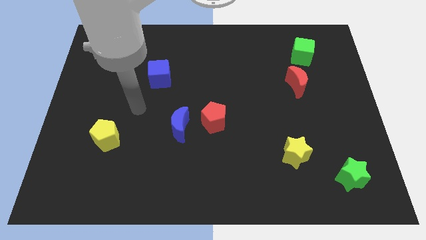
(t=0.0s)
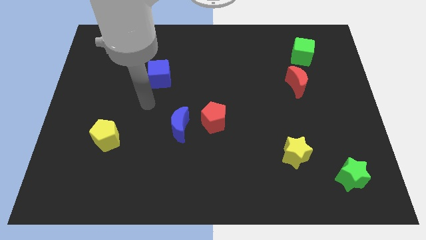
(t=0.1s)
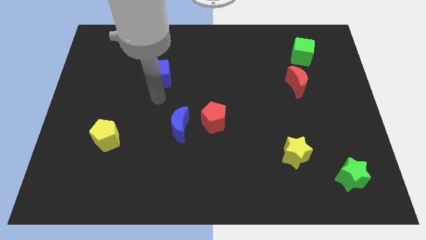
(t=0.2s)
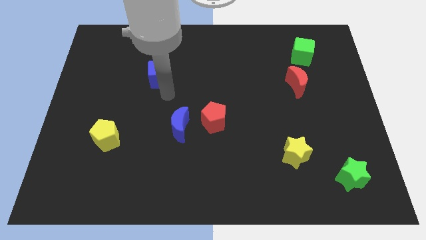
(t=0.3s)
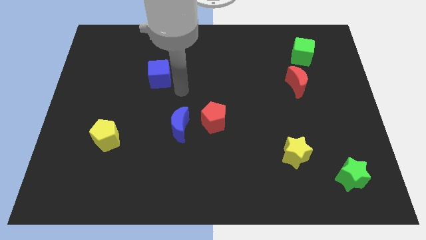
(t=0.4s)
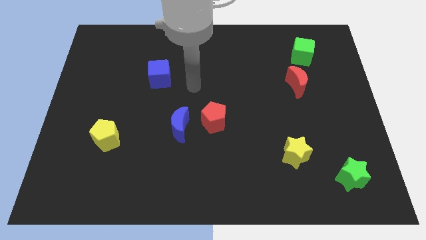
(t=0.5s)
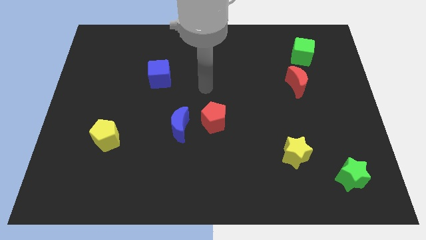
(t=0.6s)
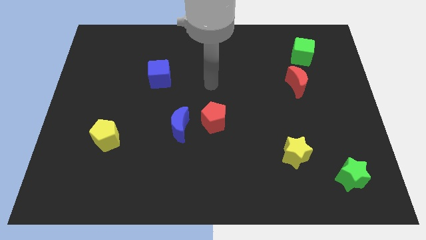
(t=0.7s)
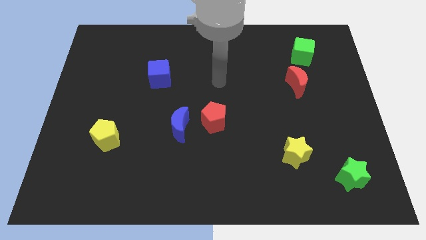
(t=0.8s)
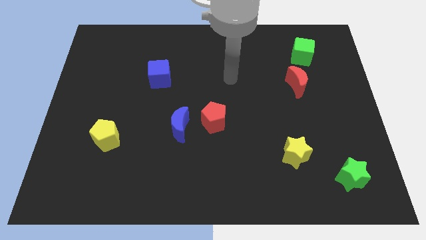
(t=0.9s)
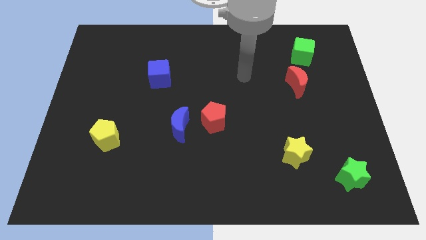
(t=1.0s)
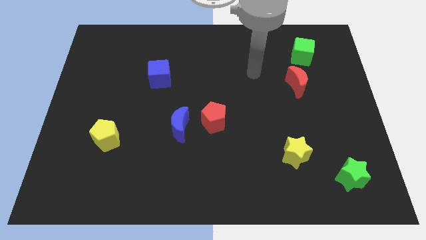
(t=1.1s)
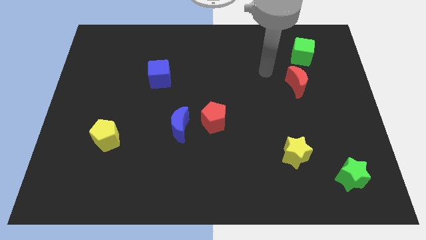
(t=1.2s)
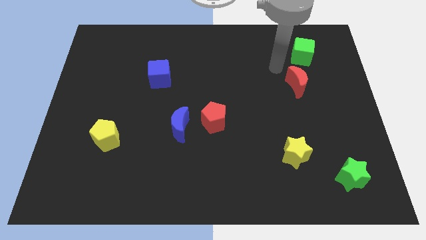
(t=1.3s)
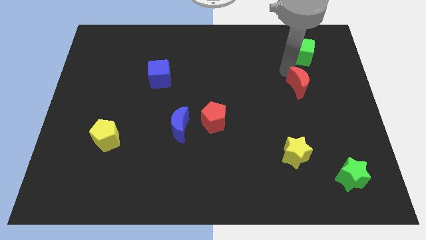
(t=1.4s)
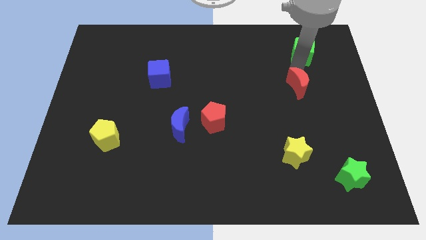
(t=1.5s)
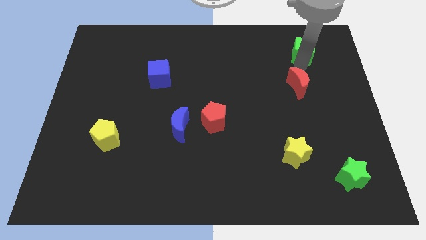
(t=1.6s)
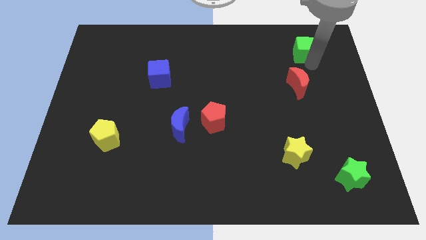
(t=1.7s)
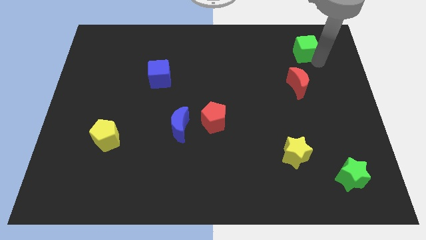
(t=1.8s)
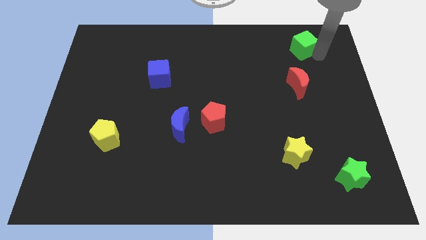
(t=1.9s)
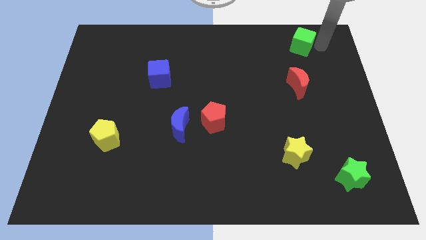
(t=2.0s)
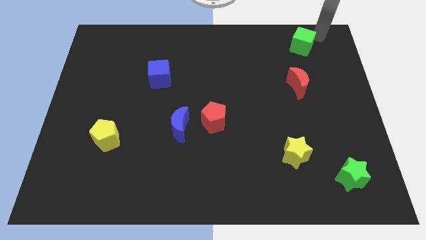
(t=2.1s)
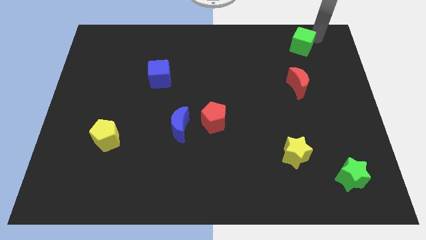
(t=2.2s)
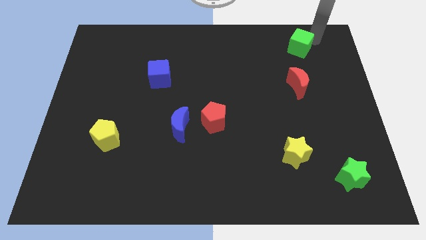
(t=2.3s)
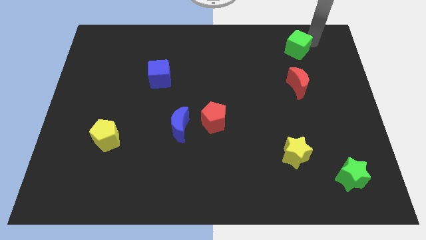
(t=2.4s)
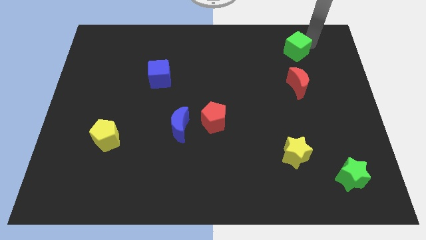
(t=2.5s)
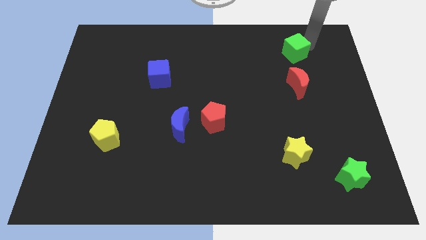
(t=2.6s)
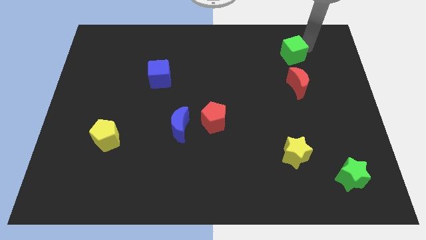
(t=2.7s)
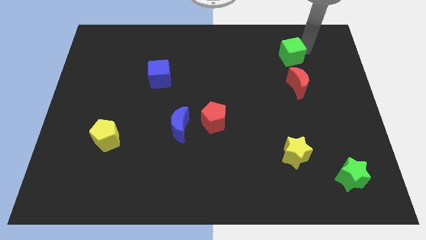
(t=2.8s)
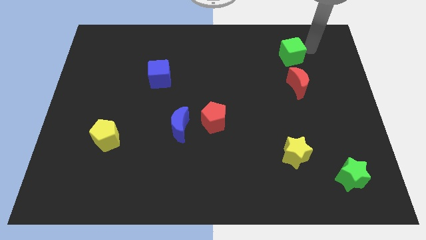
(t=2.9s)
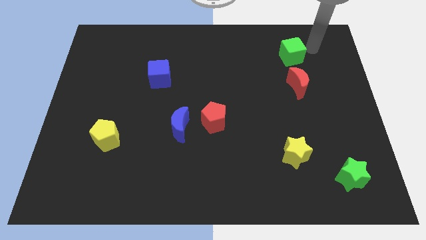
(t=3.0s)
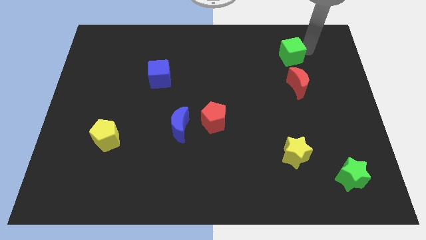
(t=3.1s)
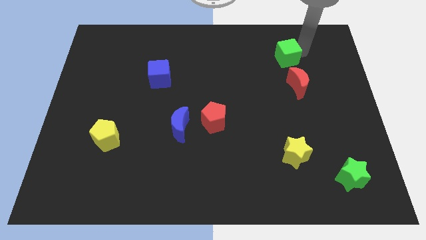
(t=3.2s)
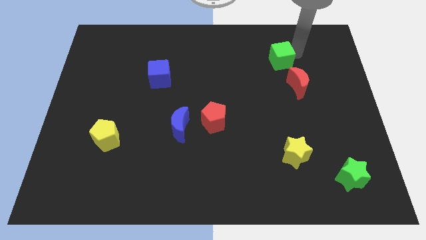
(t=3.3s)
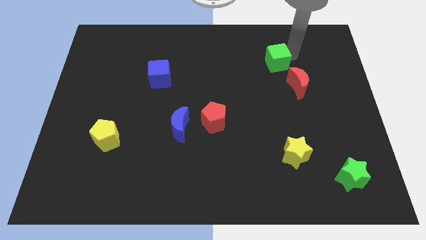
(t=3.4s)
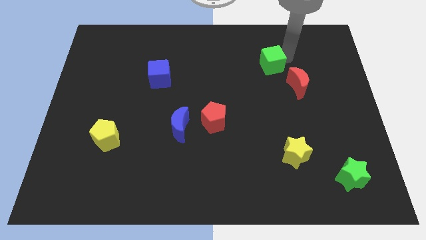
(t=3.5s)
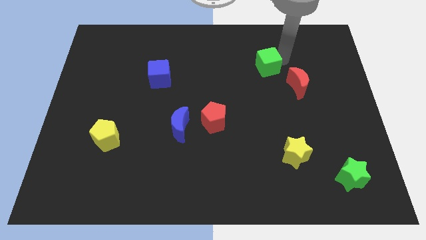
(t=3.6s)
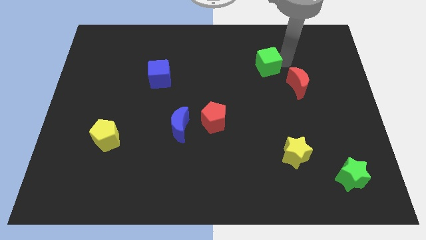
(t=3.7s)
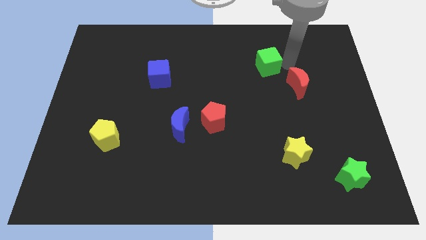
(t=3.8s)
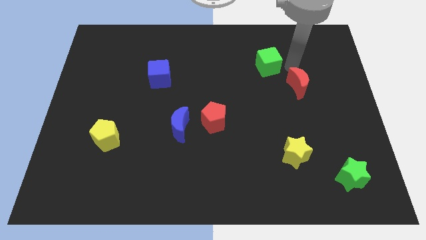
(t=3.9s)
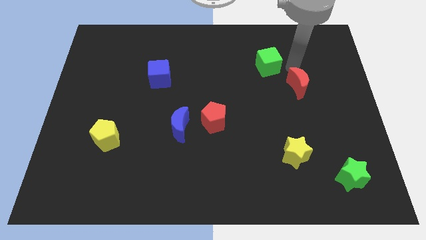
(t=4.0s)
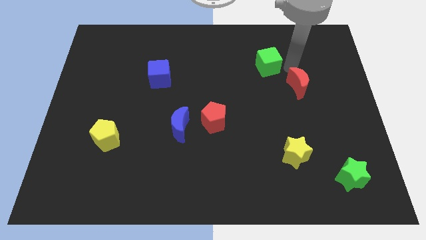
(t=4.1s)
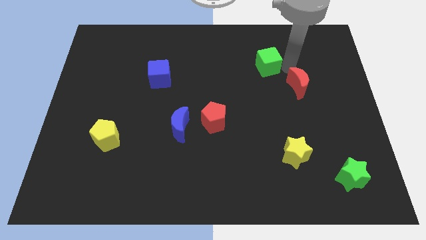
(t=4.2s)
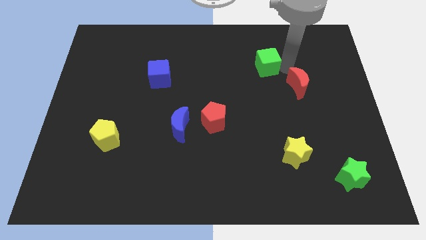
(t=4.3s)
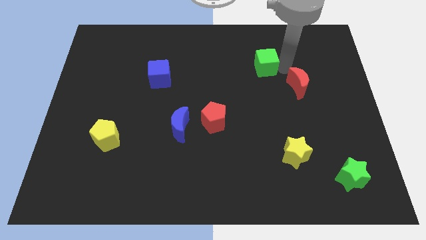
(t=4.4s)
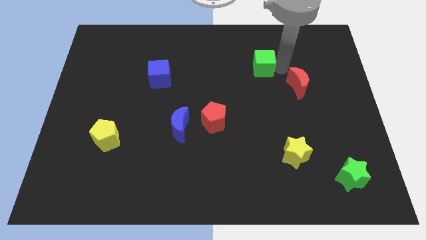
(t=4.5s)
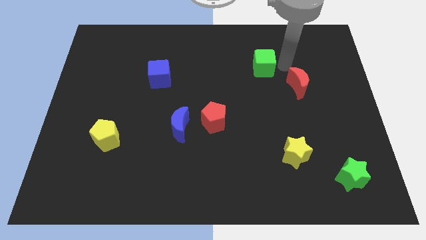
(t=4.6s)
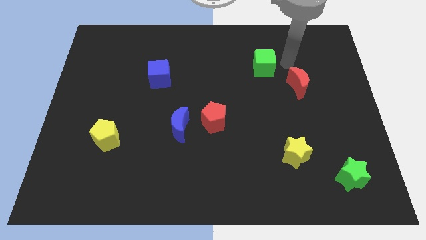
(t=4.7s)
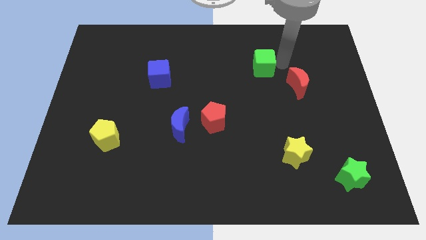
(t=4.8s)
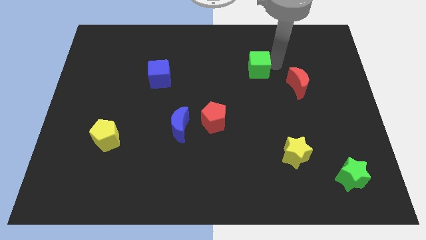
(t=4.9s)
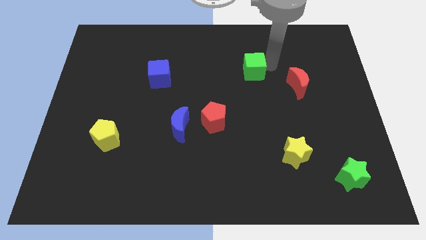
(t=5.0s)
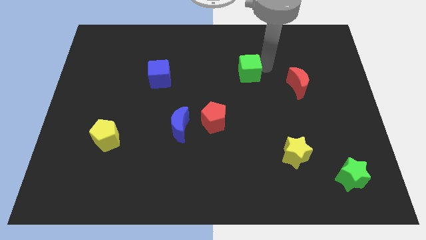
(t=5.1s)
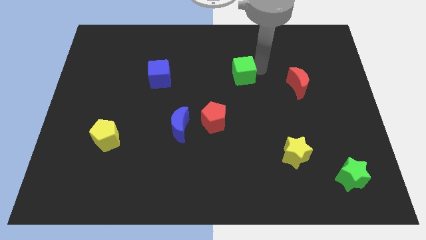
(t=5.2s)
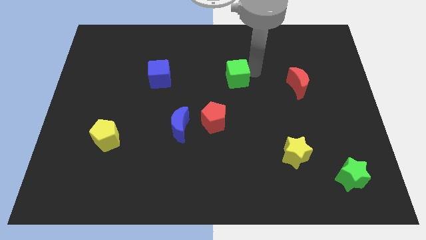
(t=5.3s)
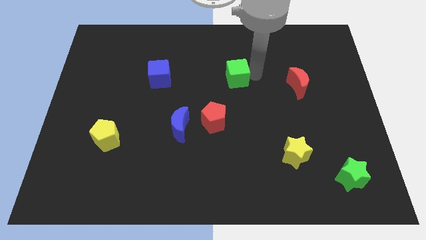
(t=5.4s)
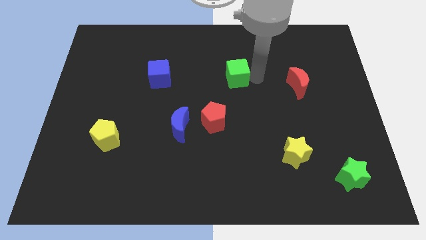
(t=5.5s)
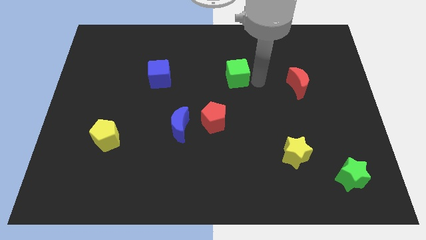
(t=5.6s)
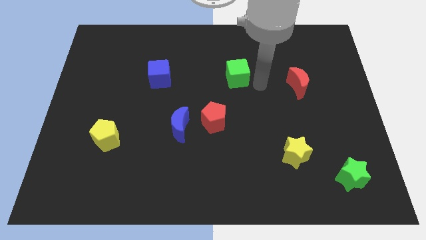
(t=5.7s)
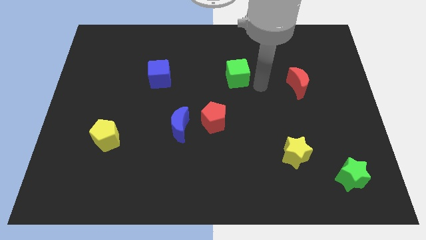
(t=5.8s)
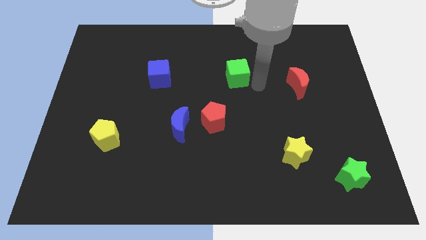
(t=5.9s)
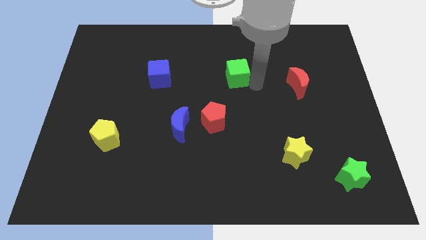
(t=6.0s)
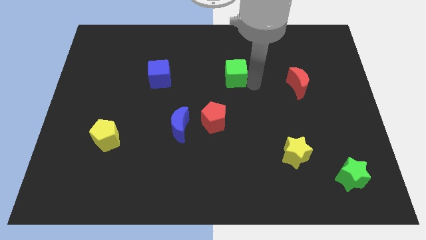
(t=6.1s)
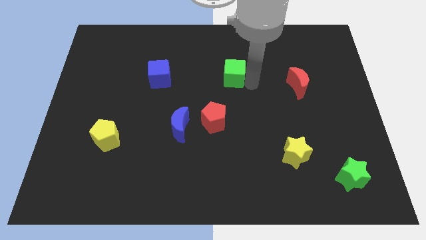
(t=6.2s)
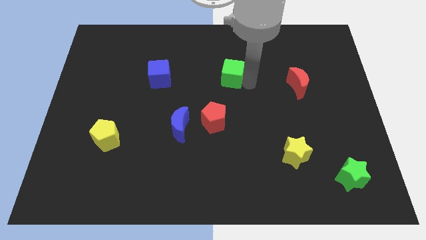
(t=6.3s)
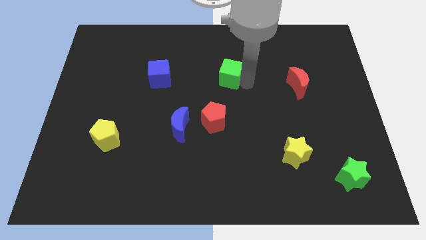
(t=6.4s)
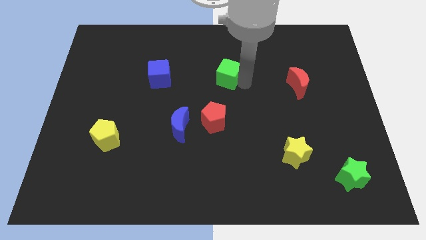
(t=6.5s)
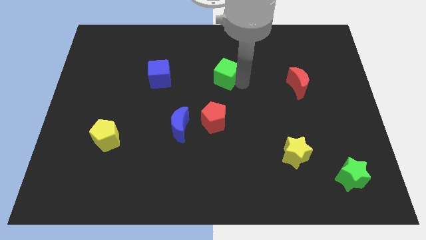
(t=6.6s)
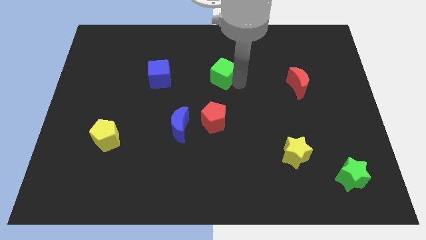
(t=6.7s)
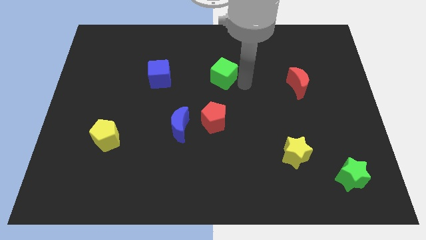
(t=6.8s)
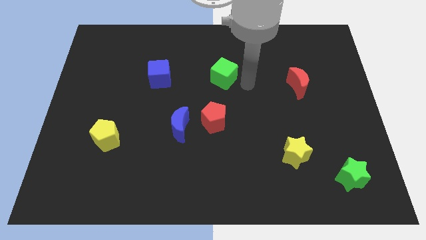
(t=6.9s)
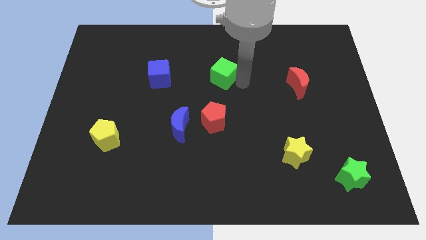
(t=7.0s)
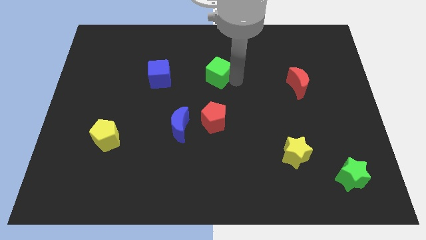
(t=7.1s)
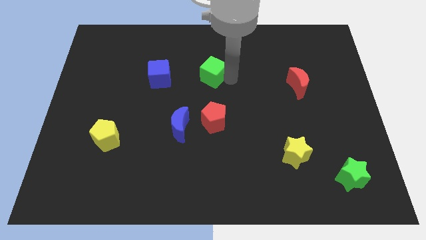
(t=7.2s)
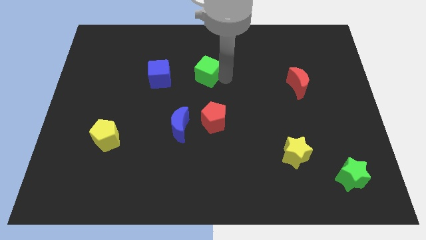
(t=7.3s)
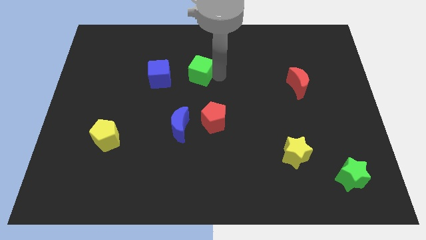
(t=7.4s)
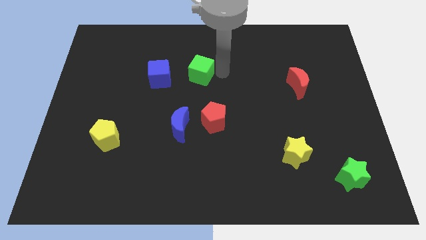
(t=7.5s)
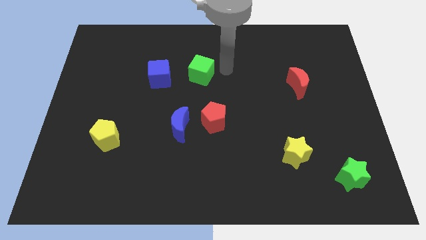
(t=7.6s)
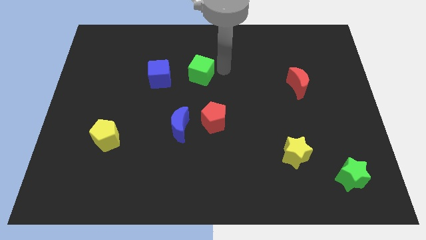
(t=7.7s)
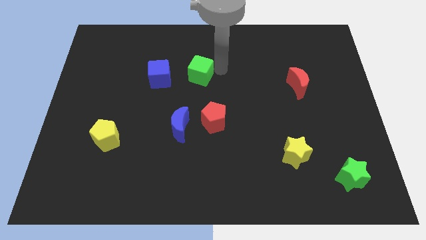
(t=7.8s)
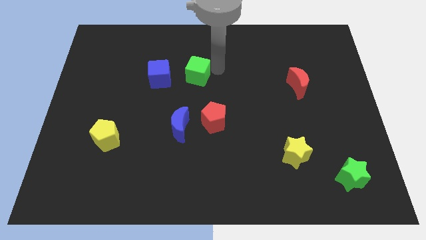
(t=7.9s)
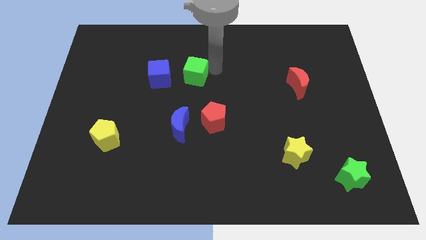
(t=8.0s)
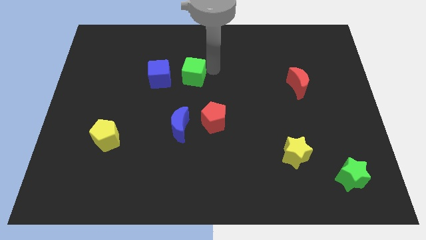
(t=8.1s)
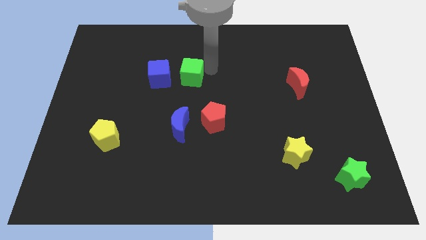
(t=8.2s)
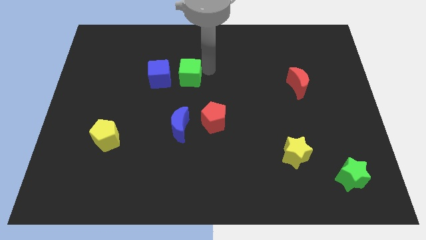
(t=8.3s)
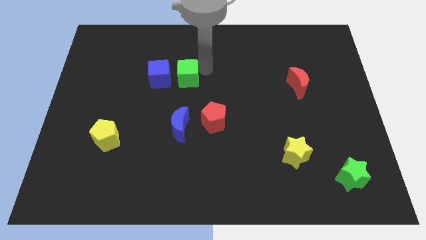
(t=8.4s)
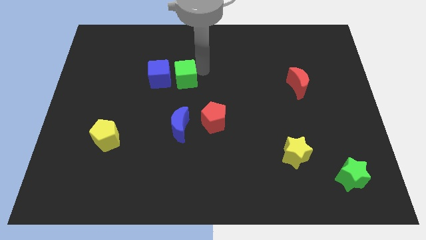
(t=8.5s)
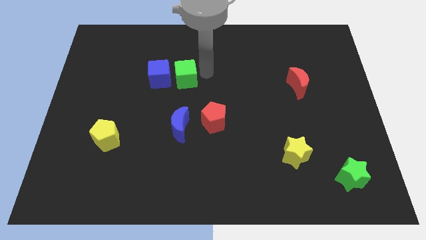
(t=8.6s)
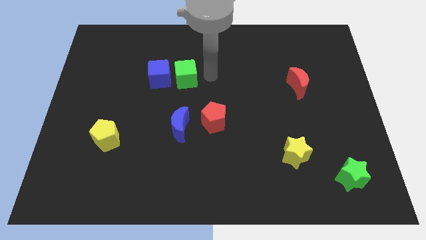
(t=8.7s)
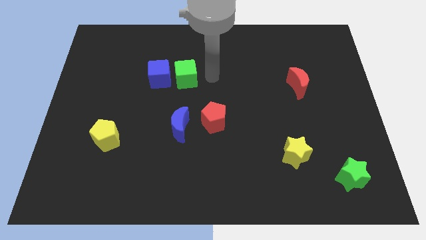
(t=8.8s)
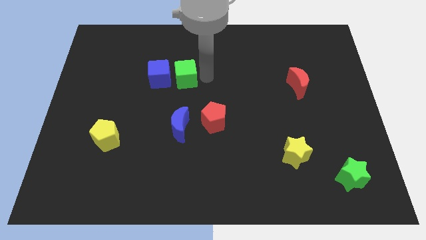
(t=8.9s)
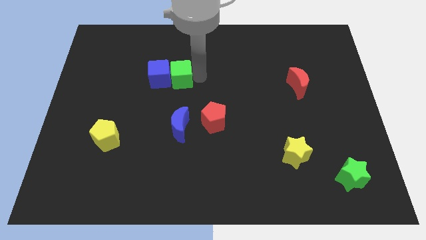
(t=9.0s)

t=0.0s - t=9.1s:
push the green cube next to the blue cube
